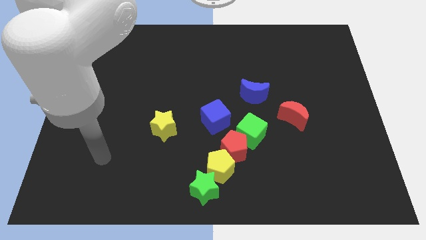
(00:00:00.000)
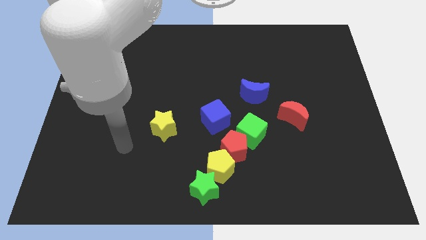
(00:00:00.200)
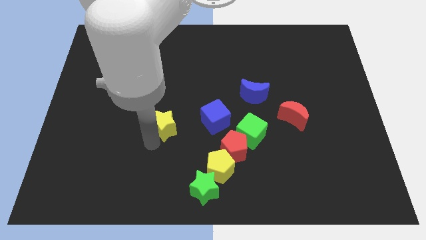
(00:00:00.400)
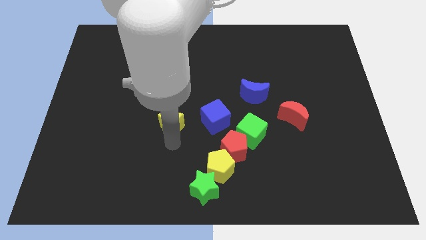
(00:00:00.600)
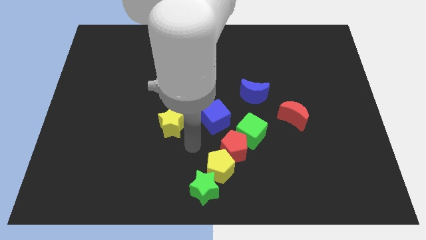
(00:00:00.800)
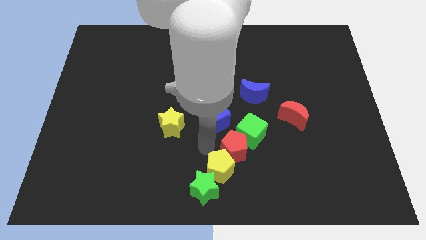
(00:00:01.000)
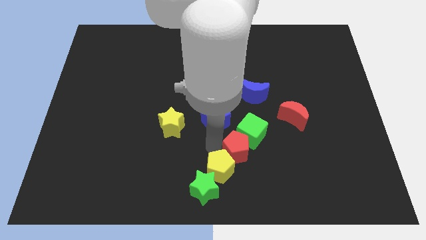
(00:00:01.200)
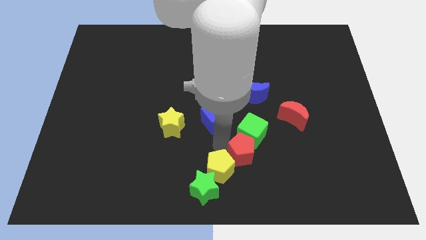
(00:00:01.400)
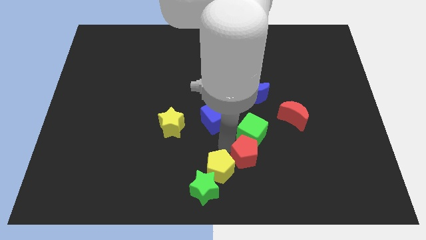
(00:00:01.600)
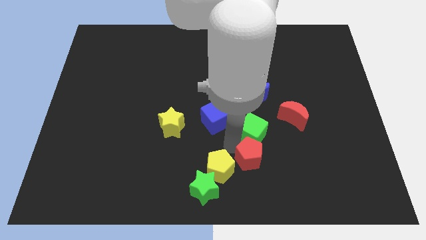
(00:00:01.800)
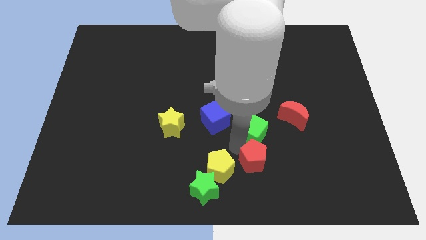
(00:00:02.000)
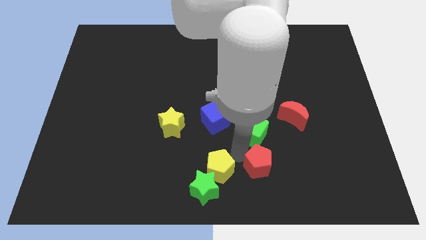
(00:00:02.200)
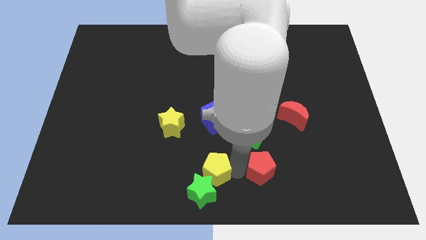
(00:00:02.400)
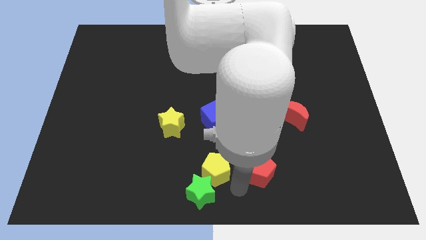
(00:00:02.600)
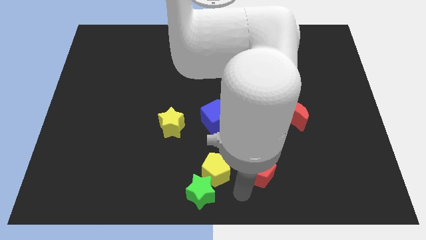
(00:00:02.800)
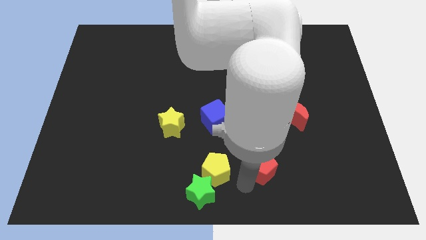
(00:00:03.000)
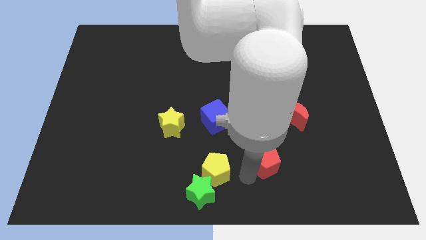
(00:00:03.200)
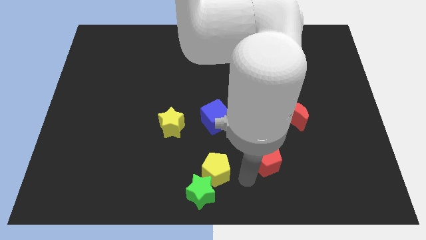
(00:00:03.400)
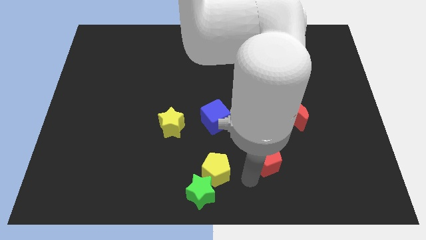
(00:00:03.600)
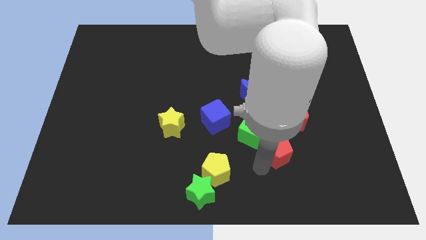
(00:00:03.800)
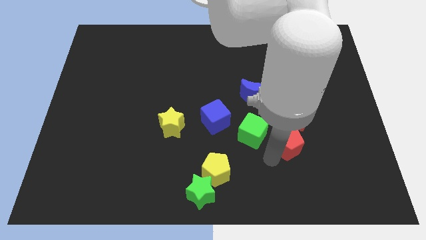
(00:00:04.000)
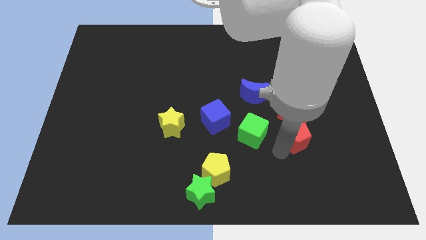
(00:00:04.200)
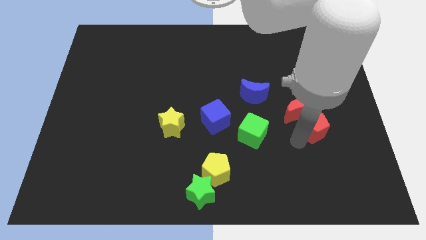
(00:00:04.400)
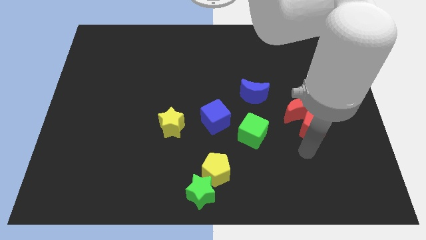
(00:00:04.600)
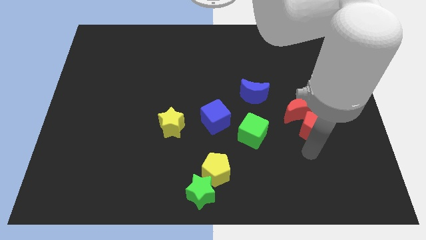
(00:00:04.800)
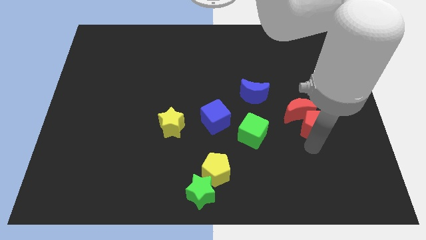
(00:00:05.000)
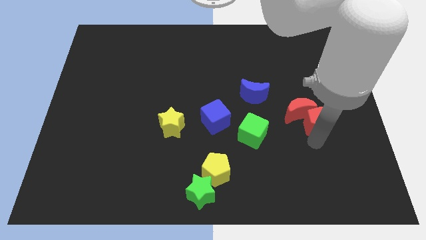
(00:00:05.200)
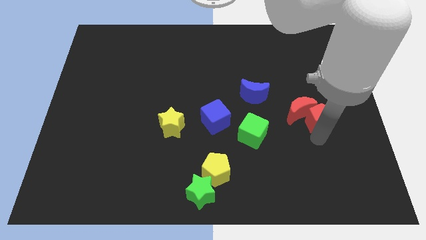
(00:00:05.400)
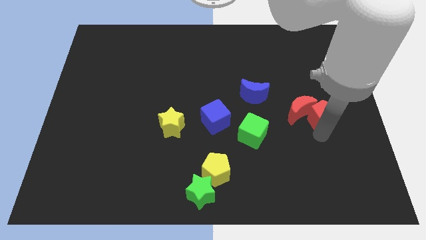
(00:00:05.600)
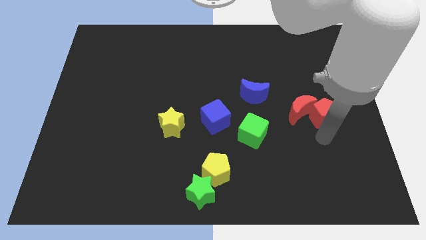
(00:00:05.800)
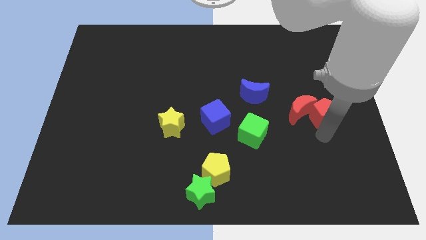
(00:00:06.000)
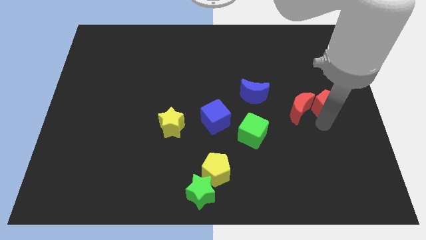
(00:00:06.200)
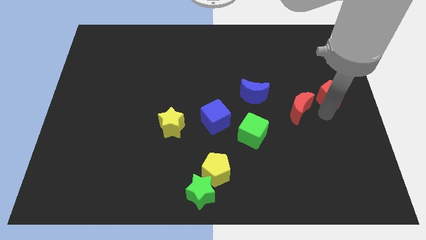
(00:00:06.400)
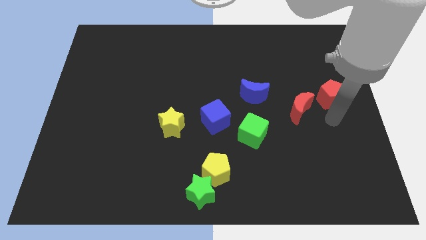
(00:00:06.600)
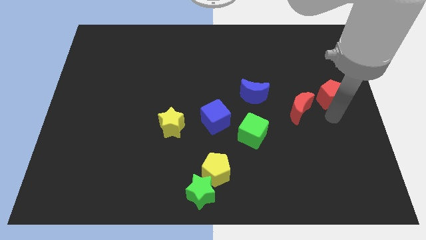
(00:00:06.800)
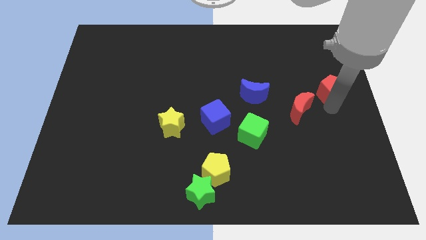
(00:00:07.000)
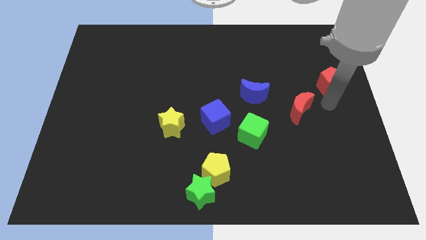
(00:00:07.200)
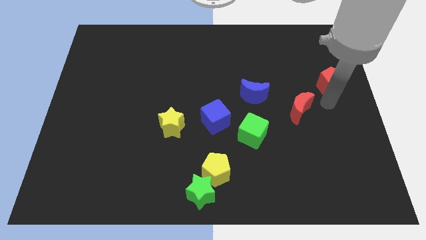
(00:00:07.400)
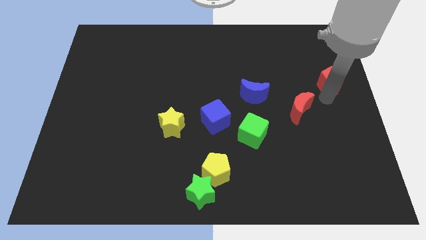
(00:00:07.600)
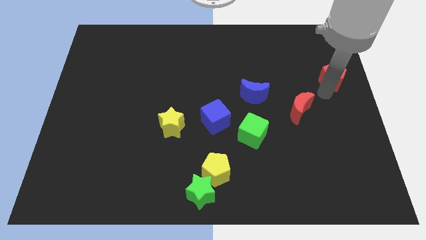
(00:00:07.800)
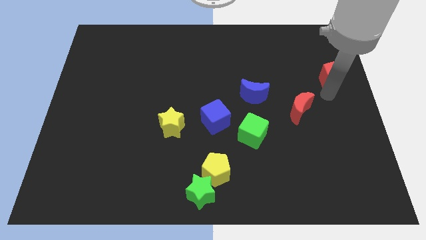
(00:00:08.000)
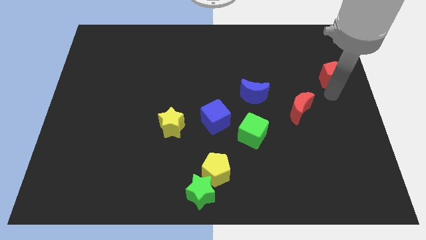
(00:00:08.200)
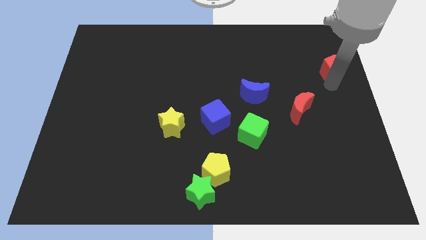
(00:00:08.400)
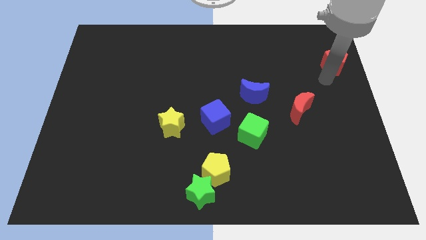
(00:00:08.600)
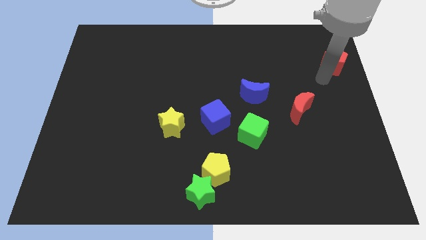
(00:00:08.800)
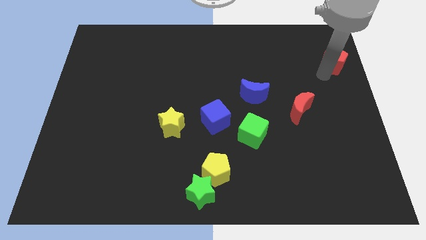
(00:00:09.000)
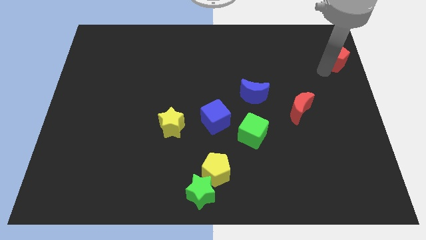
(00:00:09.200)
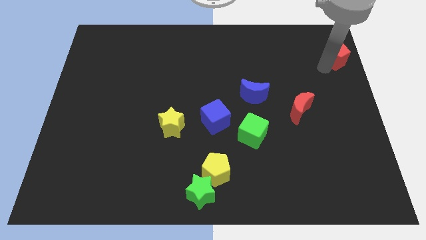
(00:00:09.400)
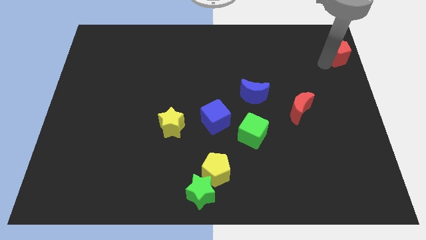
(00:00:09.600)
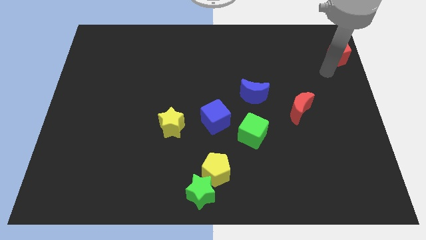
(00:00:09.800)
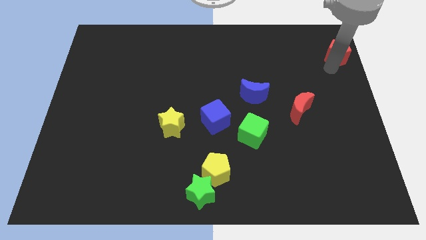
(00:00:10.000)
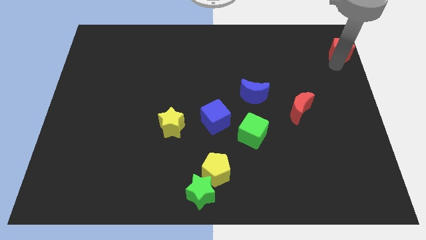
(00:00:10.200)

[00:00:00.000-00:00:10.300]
push the red pentagon to the upper right corner

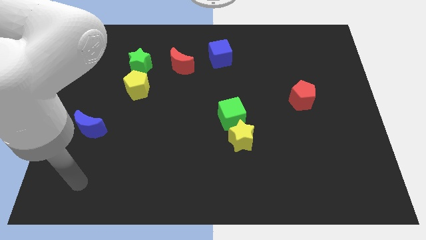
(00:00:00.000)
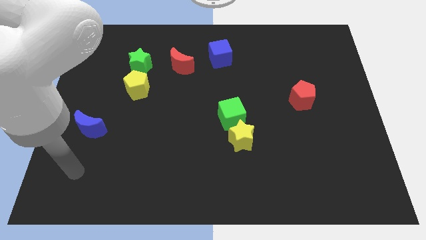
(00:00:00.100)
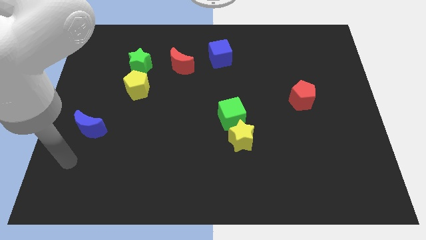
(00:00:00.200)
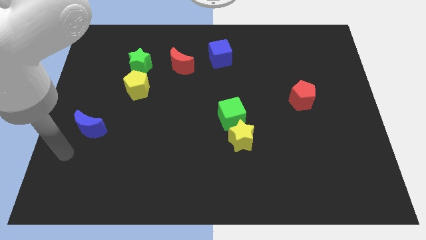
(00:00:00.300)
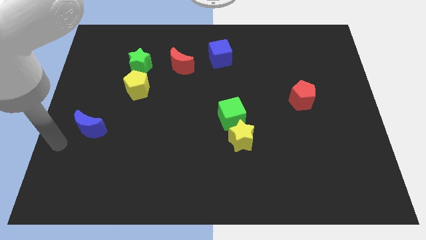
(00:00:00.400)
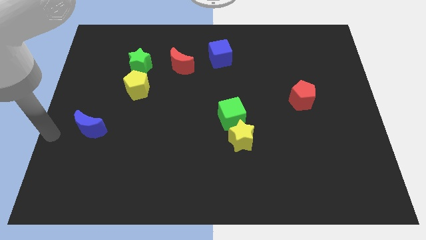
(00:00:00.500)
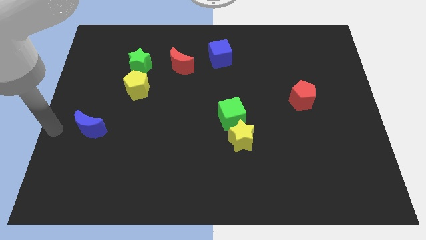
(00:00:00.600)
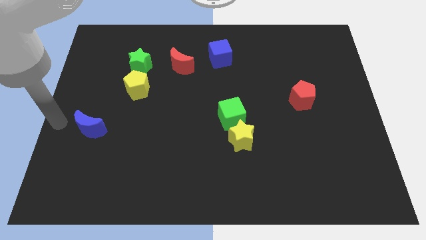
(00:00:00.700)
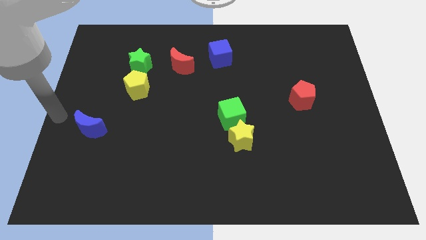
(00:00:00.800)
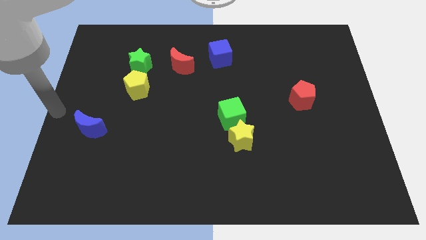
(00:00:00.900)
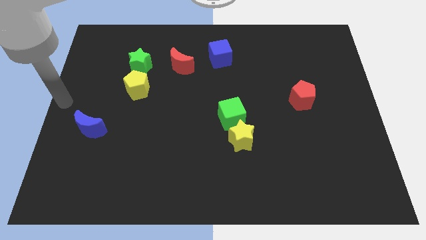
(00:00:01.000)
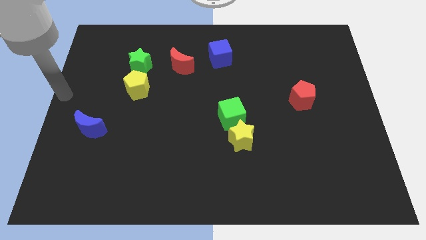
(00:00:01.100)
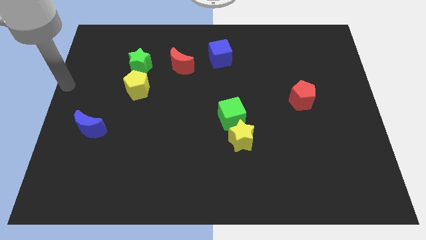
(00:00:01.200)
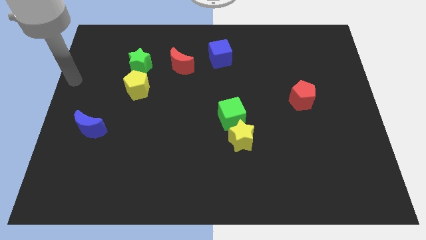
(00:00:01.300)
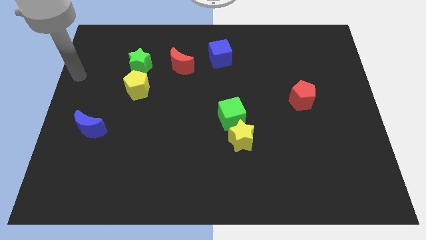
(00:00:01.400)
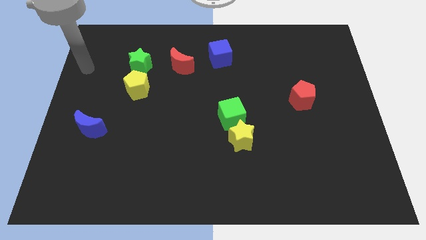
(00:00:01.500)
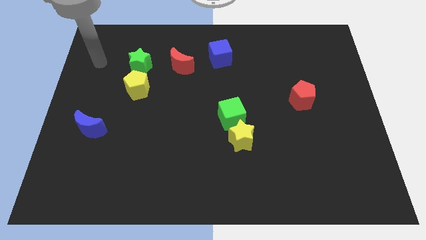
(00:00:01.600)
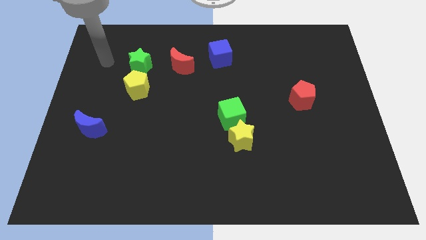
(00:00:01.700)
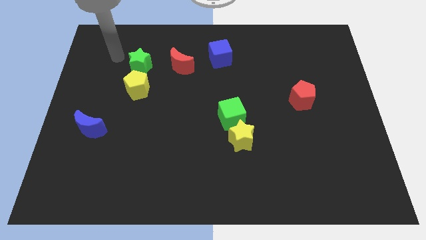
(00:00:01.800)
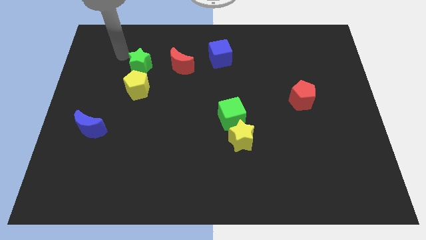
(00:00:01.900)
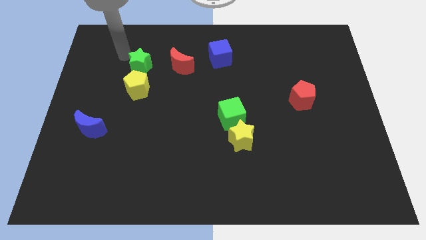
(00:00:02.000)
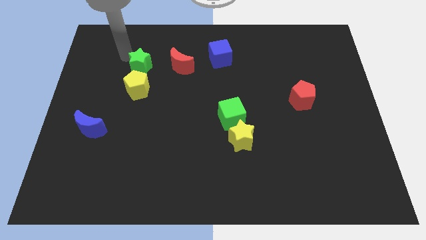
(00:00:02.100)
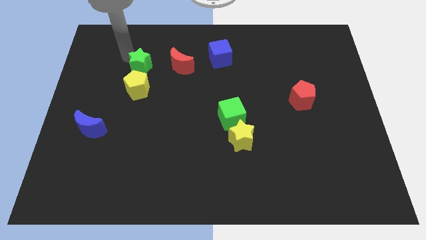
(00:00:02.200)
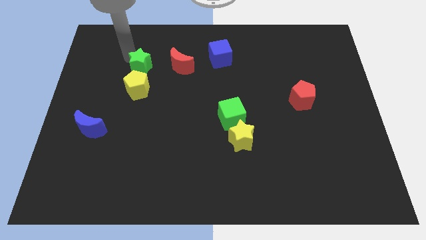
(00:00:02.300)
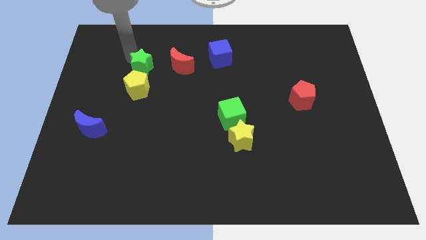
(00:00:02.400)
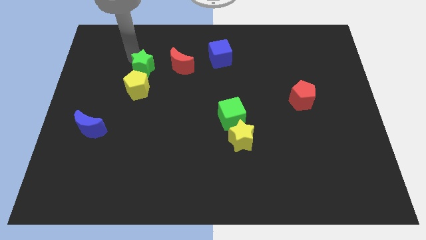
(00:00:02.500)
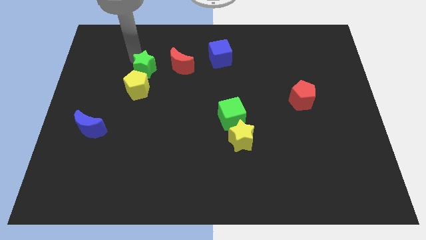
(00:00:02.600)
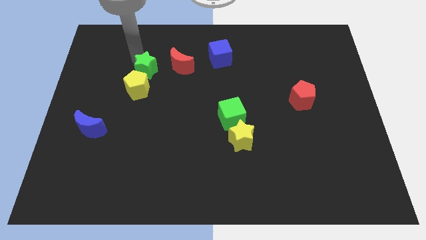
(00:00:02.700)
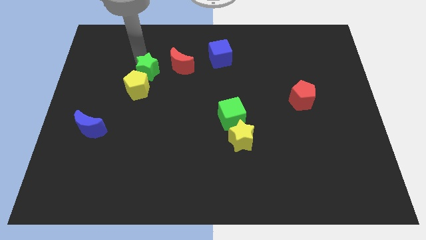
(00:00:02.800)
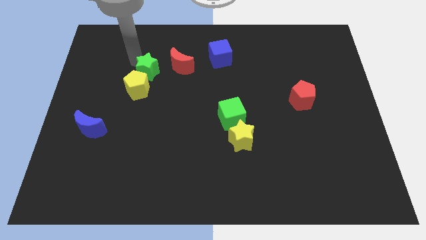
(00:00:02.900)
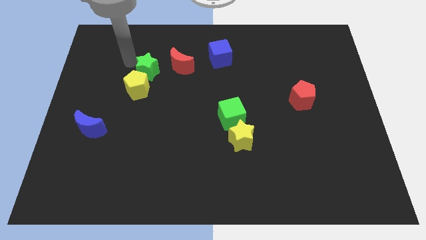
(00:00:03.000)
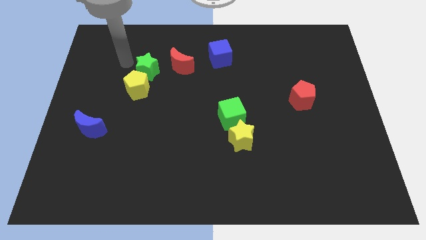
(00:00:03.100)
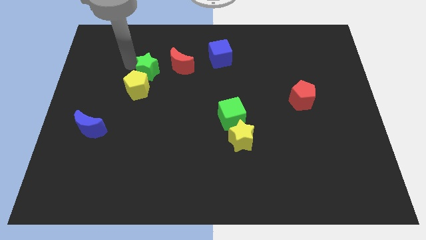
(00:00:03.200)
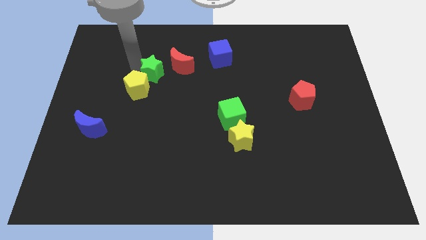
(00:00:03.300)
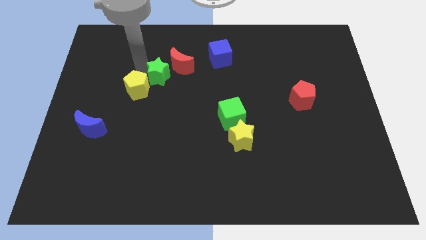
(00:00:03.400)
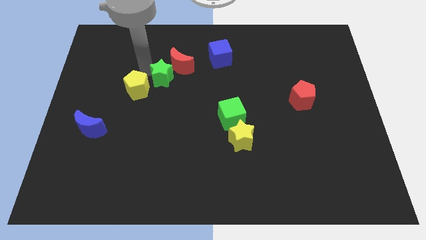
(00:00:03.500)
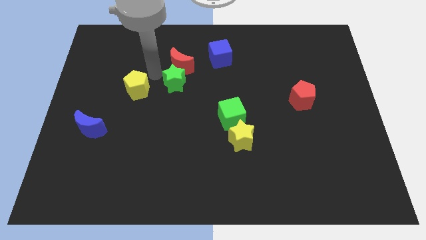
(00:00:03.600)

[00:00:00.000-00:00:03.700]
move the green star to the center
